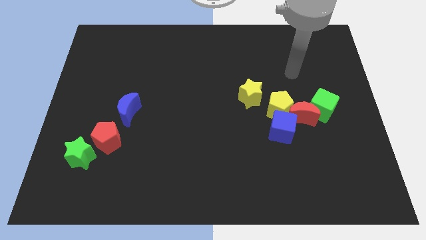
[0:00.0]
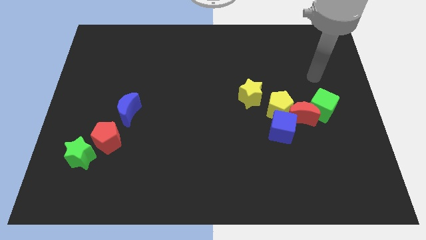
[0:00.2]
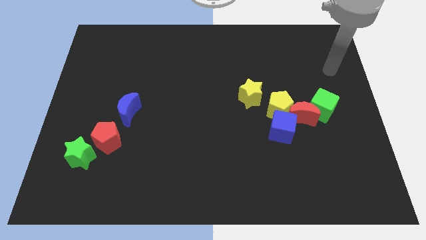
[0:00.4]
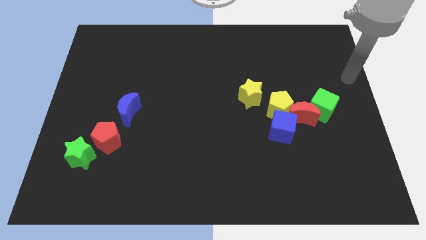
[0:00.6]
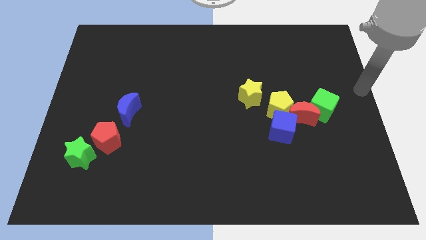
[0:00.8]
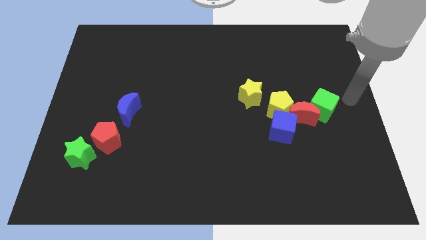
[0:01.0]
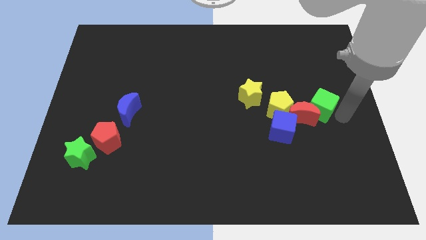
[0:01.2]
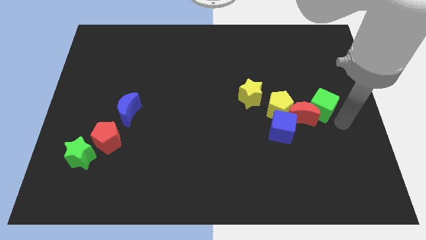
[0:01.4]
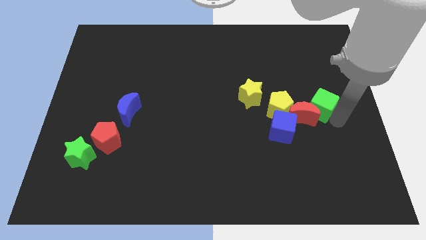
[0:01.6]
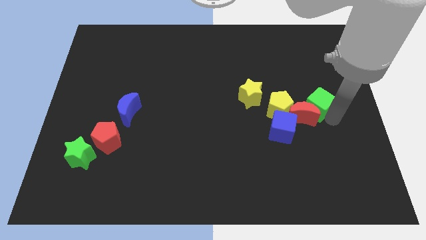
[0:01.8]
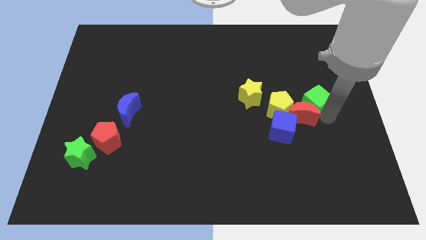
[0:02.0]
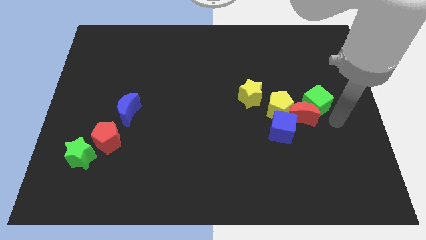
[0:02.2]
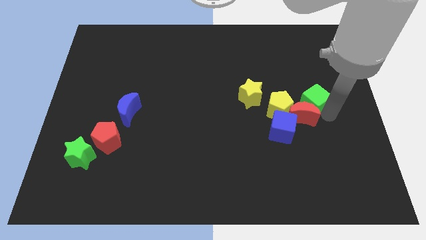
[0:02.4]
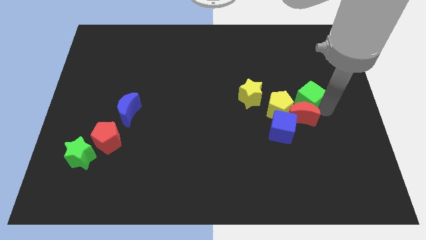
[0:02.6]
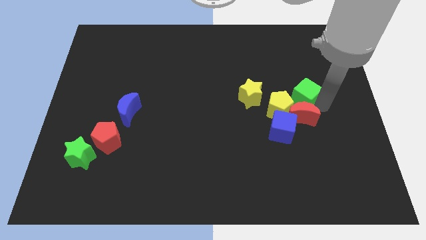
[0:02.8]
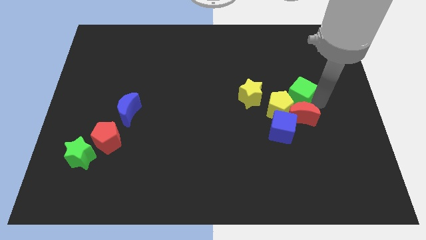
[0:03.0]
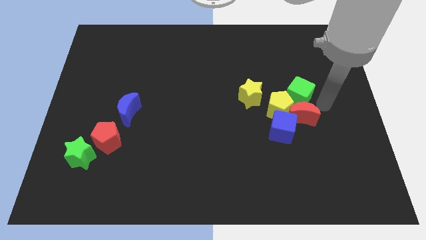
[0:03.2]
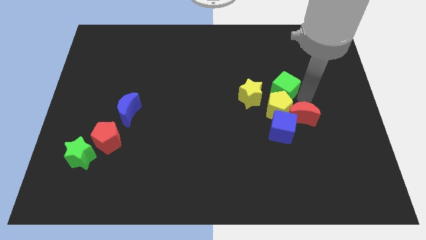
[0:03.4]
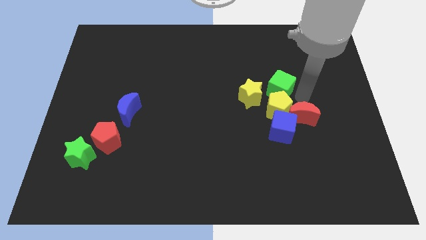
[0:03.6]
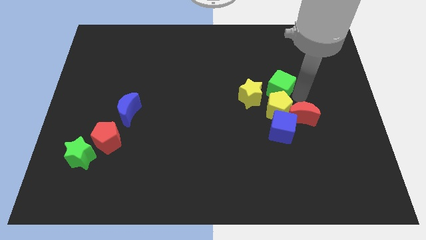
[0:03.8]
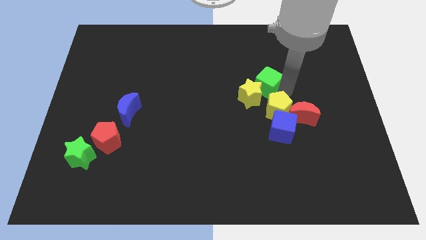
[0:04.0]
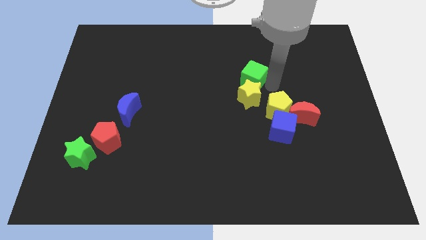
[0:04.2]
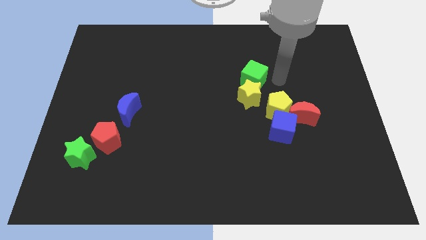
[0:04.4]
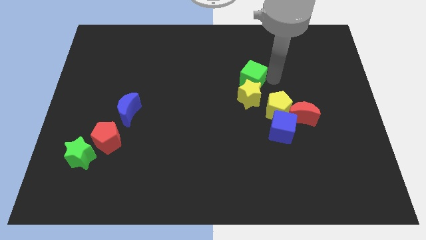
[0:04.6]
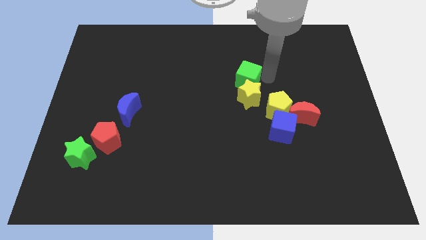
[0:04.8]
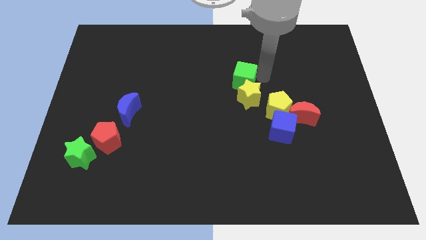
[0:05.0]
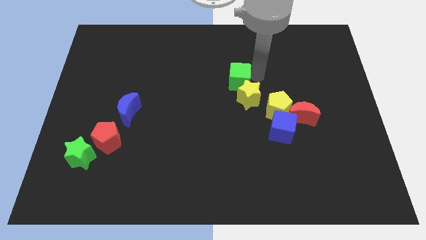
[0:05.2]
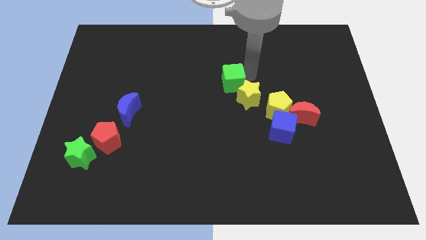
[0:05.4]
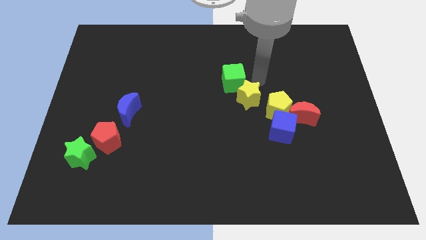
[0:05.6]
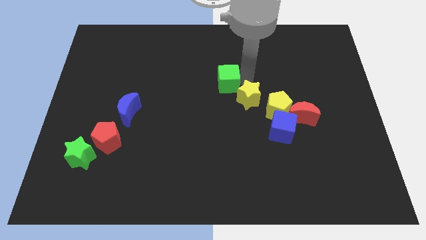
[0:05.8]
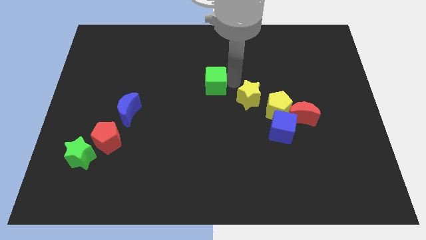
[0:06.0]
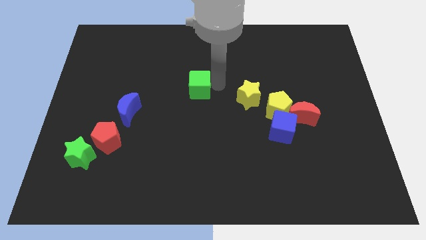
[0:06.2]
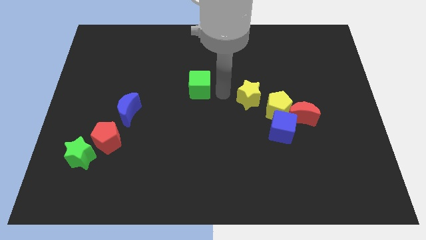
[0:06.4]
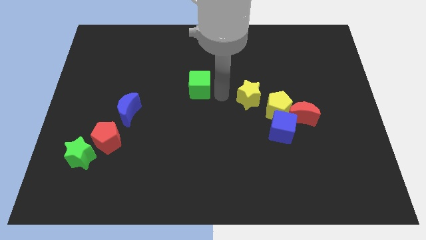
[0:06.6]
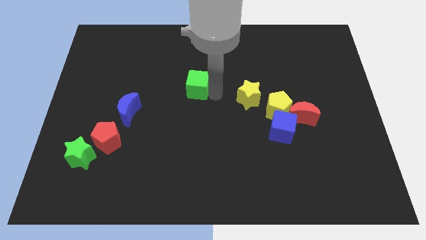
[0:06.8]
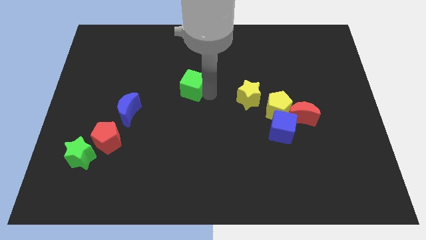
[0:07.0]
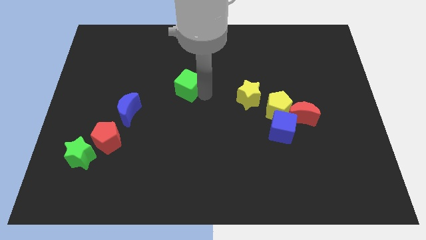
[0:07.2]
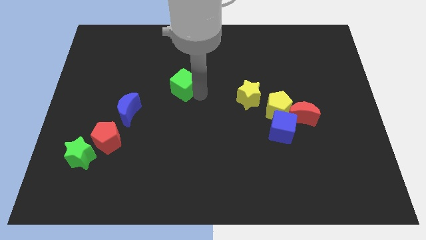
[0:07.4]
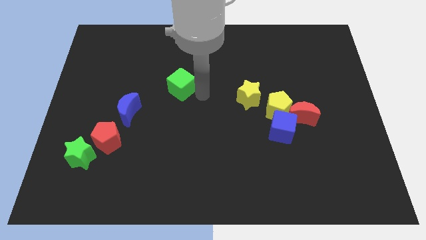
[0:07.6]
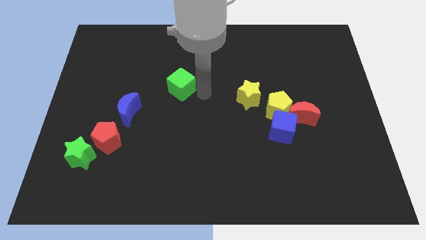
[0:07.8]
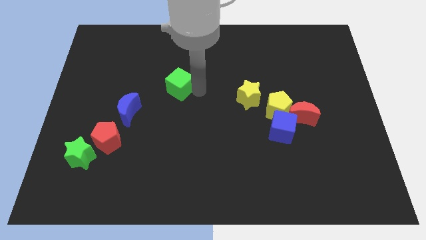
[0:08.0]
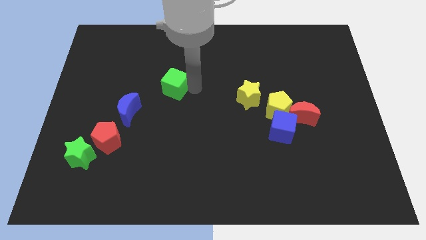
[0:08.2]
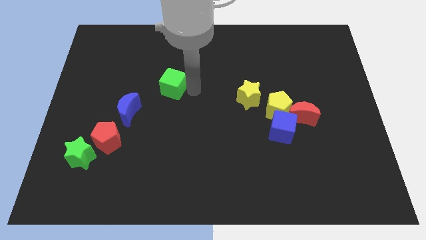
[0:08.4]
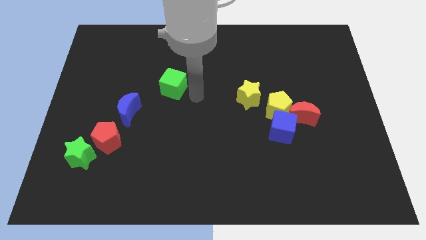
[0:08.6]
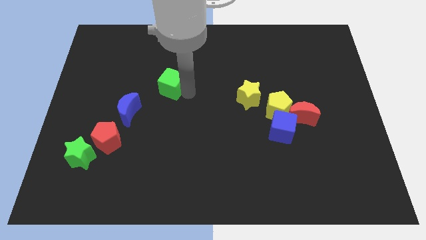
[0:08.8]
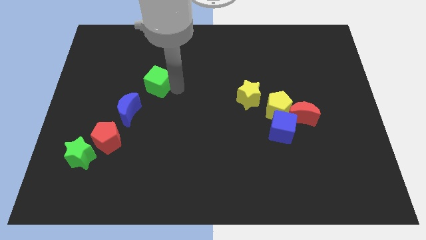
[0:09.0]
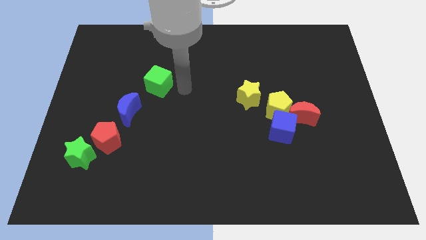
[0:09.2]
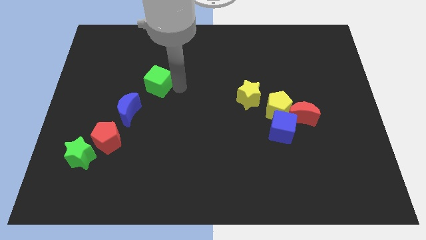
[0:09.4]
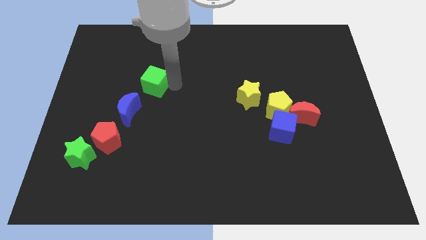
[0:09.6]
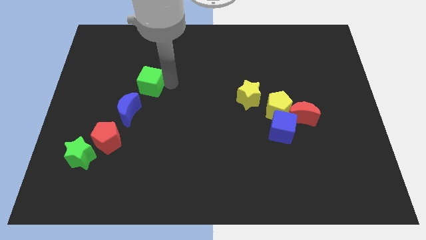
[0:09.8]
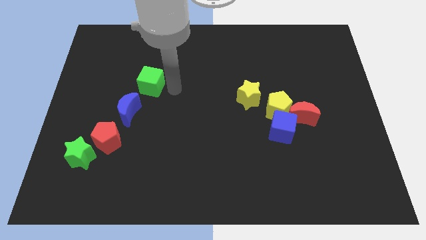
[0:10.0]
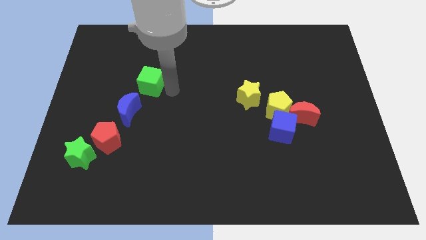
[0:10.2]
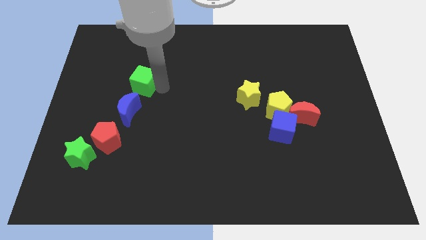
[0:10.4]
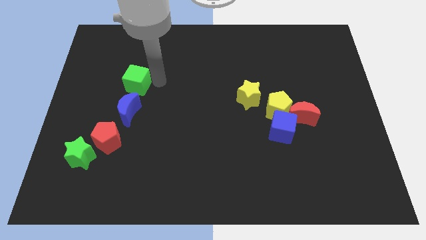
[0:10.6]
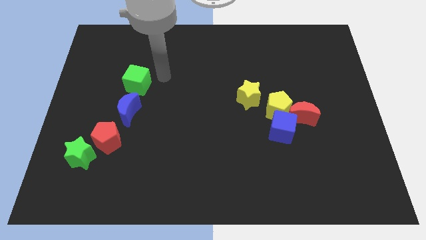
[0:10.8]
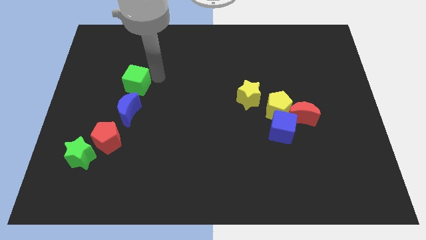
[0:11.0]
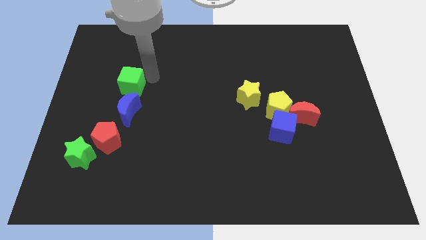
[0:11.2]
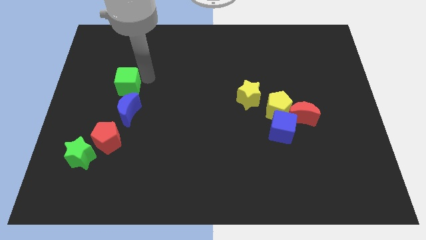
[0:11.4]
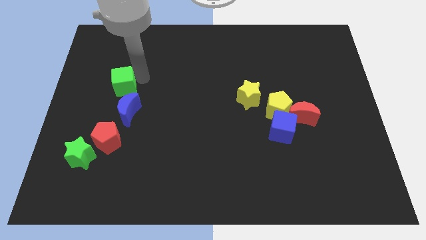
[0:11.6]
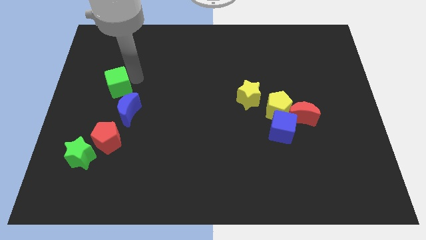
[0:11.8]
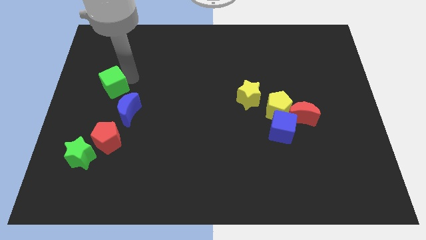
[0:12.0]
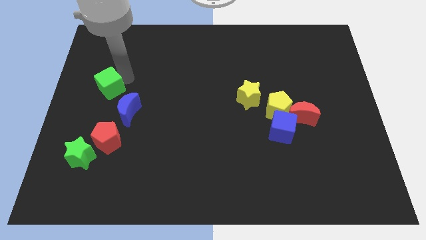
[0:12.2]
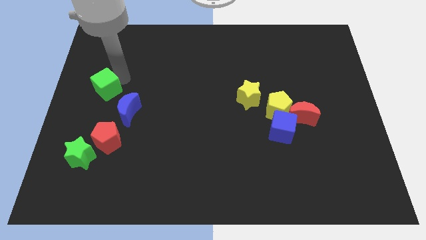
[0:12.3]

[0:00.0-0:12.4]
move the green cube to the center left
